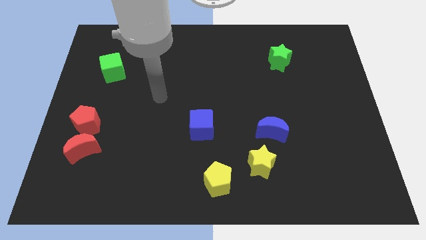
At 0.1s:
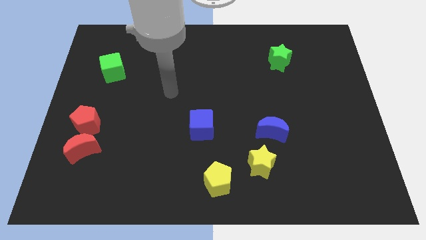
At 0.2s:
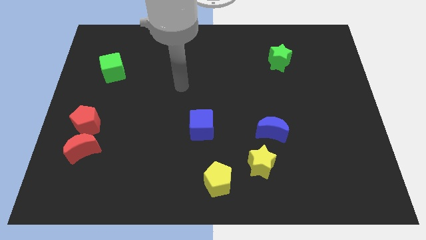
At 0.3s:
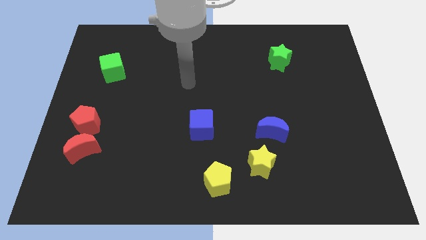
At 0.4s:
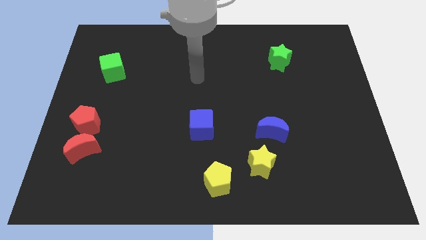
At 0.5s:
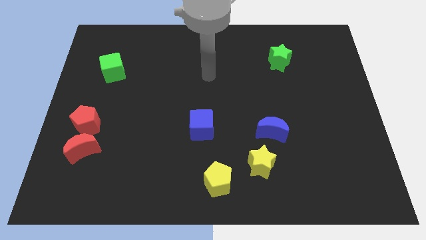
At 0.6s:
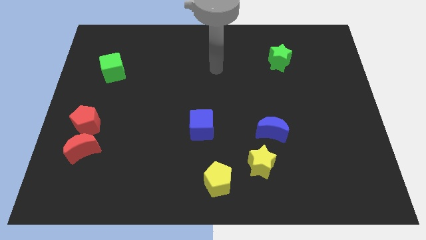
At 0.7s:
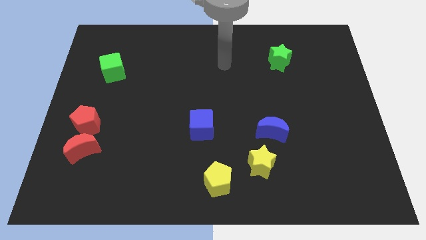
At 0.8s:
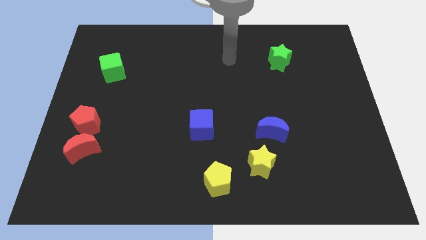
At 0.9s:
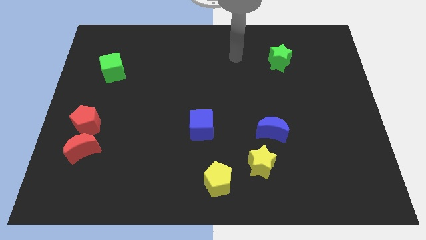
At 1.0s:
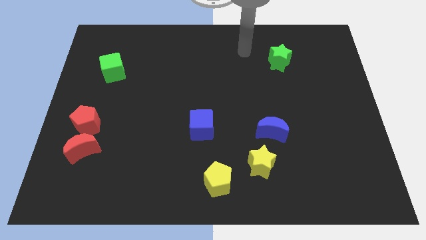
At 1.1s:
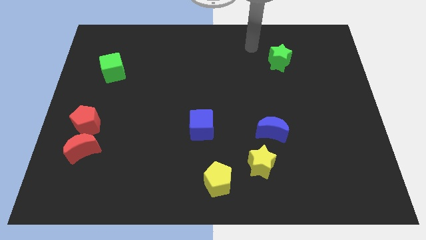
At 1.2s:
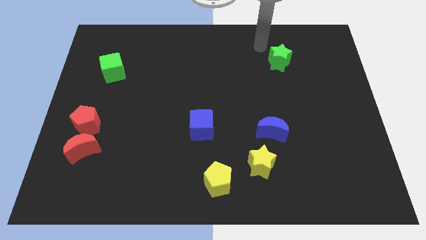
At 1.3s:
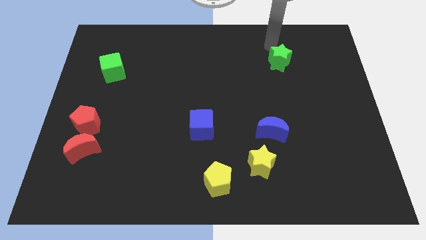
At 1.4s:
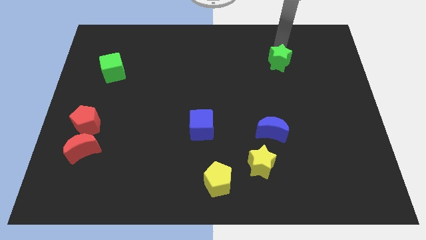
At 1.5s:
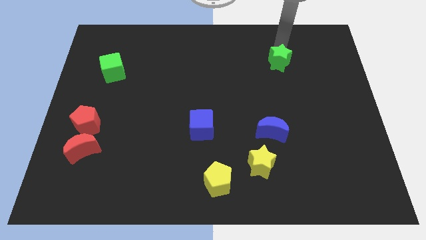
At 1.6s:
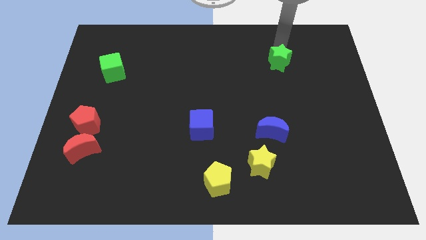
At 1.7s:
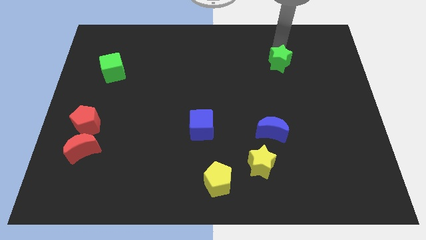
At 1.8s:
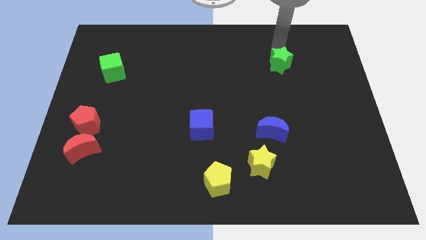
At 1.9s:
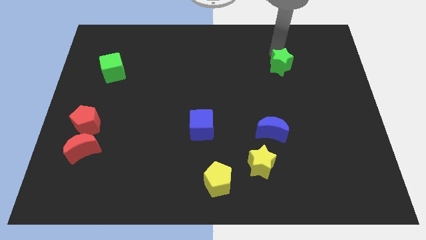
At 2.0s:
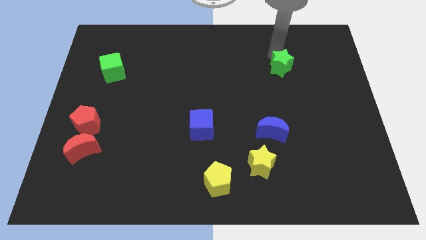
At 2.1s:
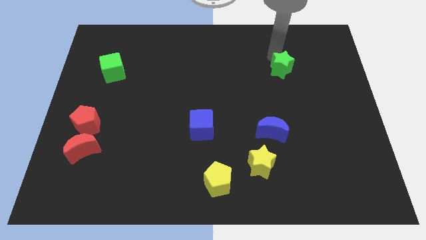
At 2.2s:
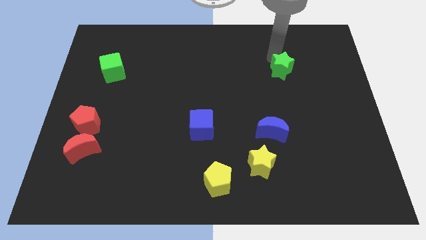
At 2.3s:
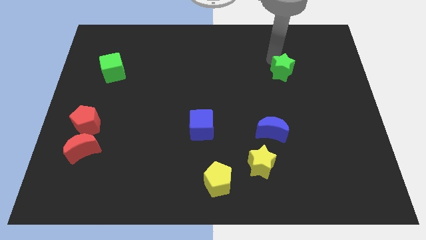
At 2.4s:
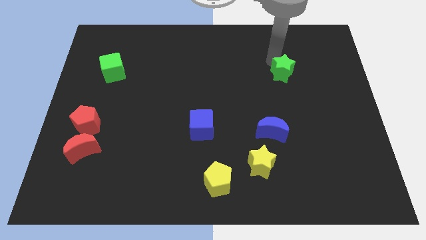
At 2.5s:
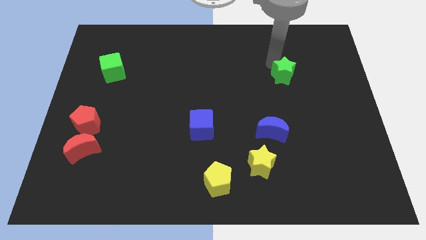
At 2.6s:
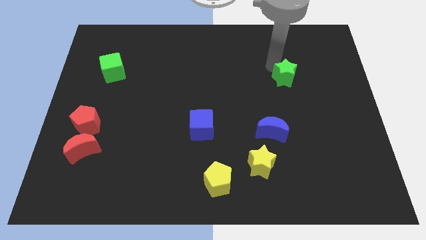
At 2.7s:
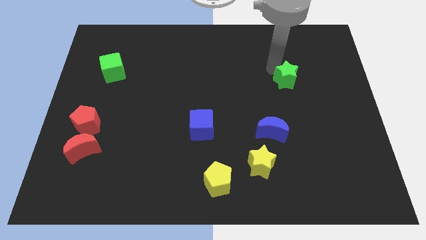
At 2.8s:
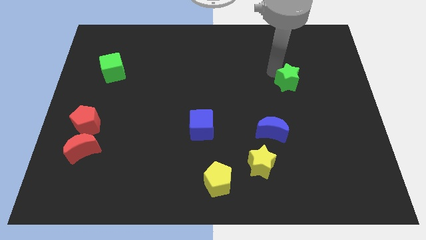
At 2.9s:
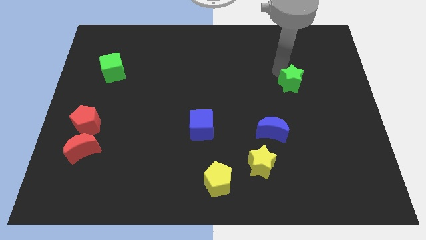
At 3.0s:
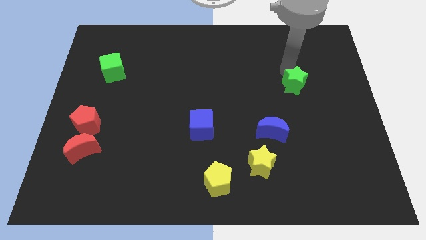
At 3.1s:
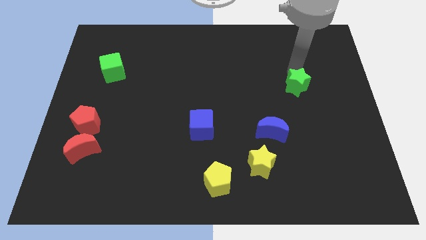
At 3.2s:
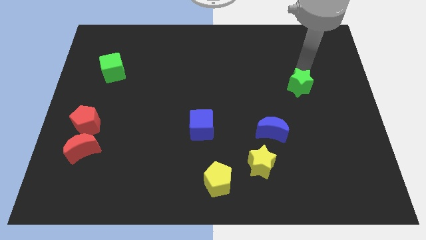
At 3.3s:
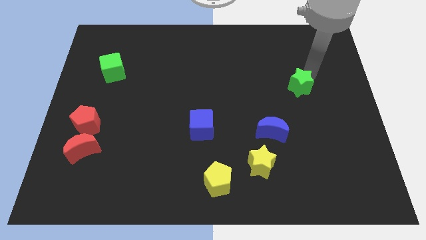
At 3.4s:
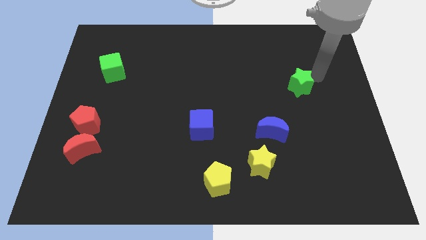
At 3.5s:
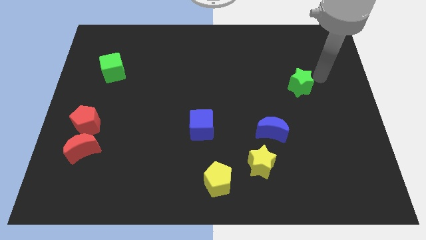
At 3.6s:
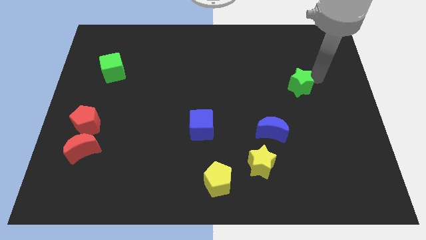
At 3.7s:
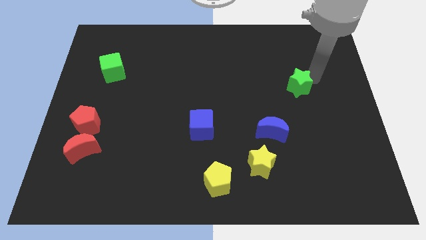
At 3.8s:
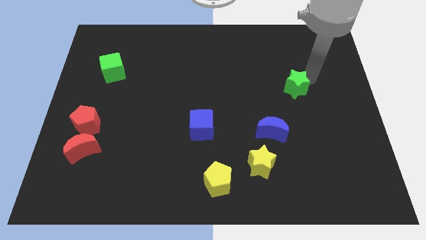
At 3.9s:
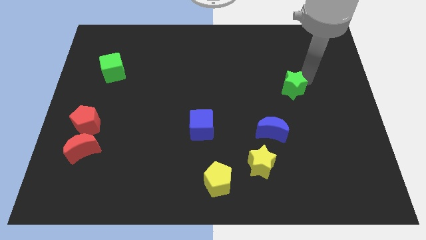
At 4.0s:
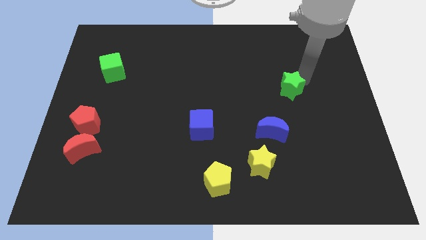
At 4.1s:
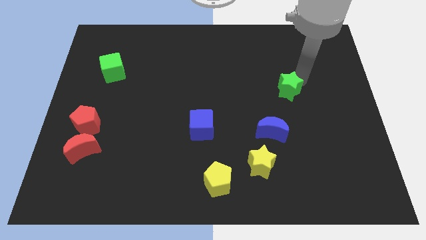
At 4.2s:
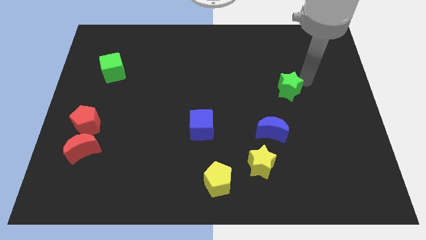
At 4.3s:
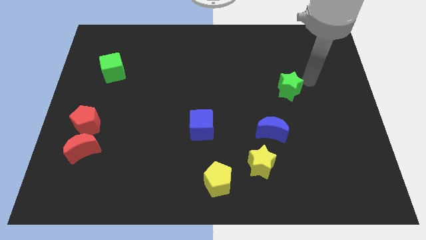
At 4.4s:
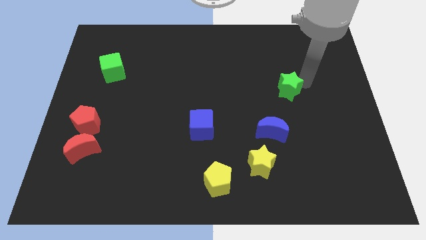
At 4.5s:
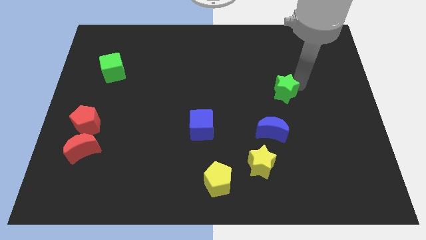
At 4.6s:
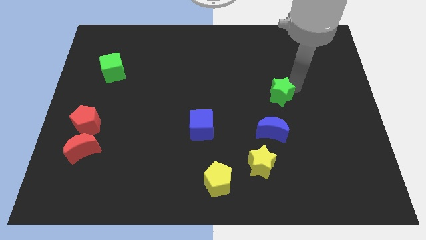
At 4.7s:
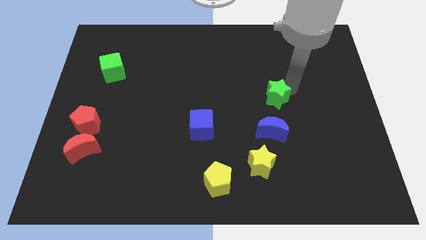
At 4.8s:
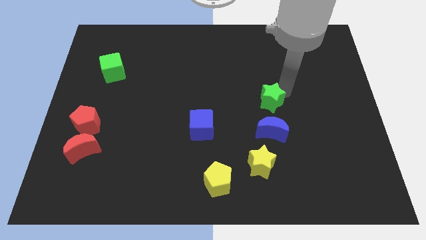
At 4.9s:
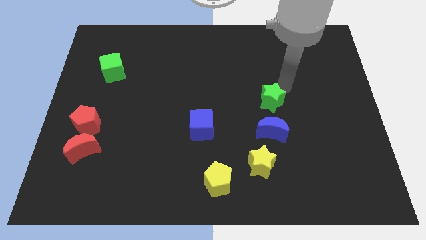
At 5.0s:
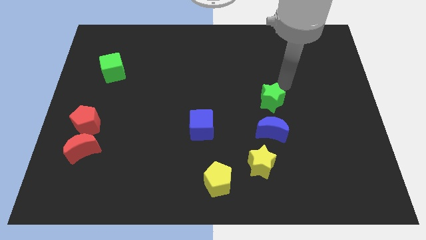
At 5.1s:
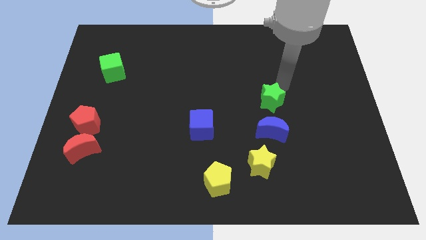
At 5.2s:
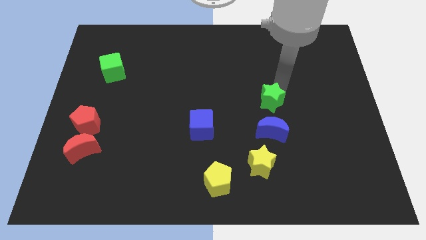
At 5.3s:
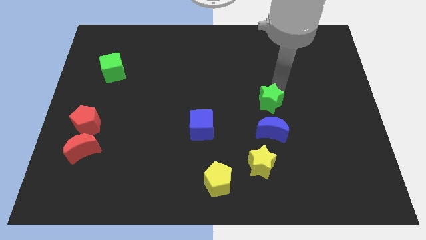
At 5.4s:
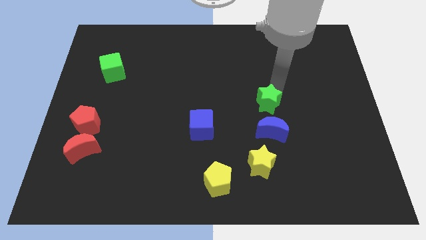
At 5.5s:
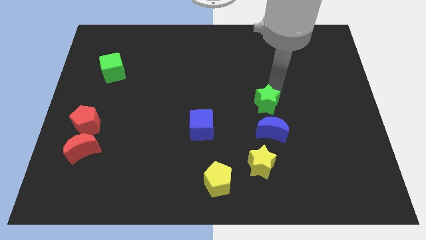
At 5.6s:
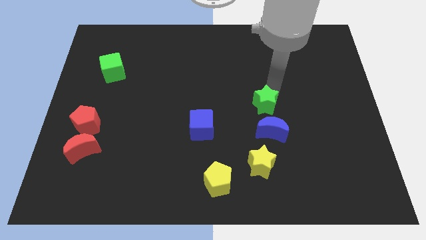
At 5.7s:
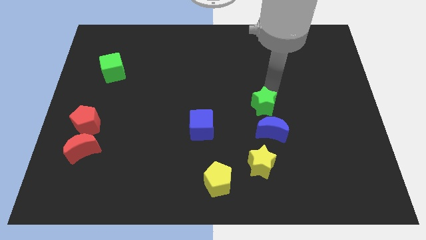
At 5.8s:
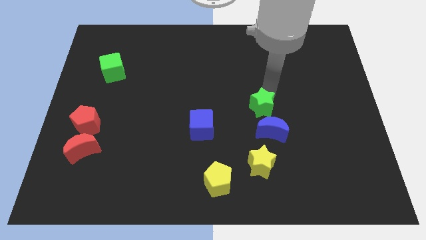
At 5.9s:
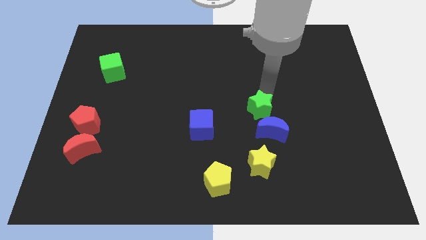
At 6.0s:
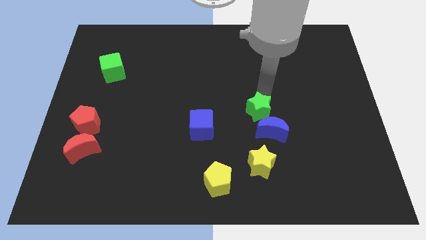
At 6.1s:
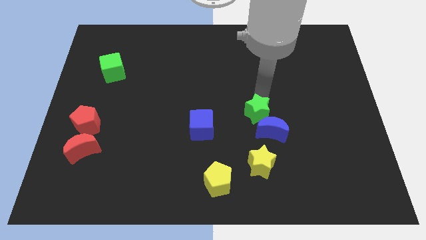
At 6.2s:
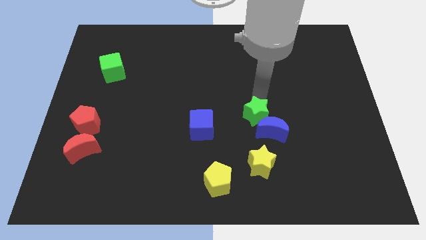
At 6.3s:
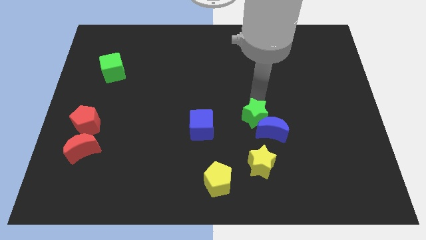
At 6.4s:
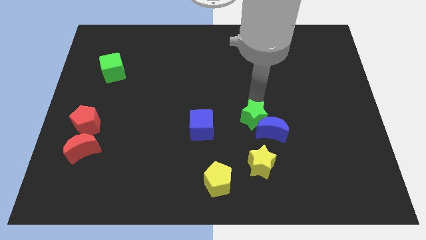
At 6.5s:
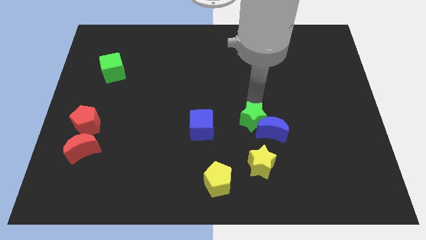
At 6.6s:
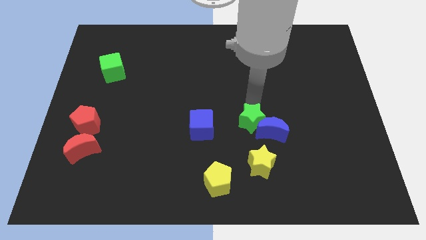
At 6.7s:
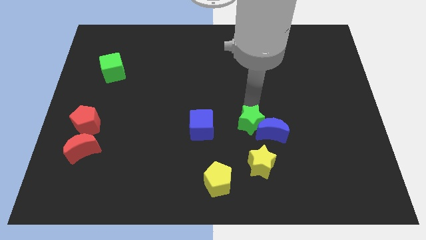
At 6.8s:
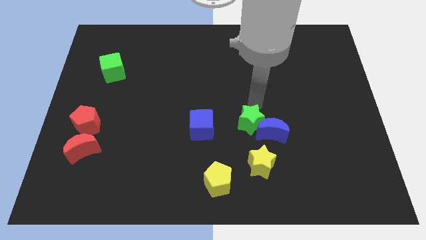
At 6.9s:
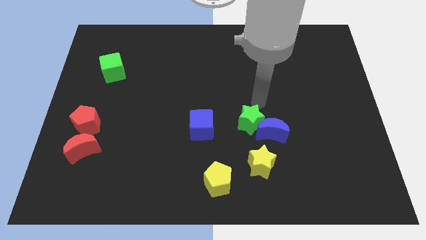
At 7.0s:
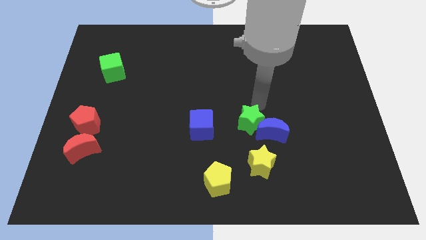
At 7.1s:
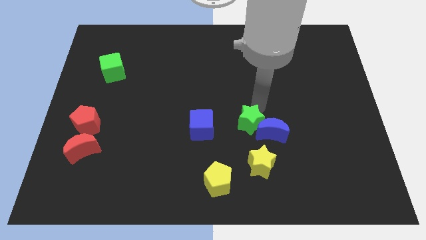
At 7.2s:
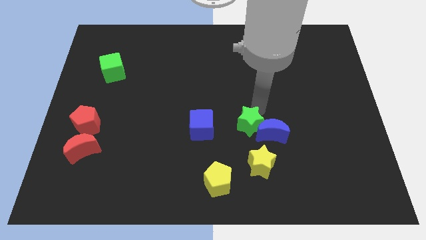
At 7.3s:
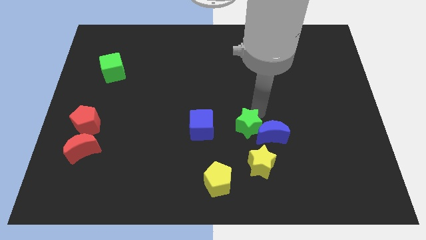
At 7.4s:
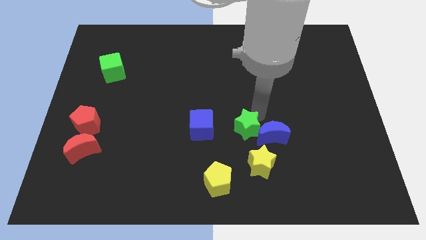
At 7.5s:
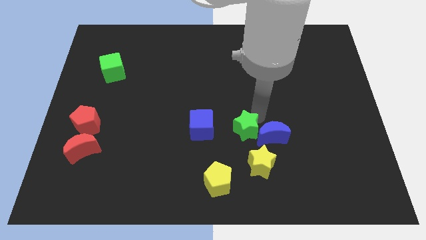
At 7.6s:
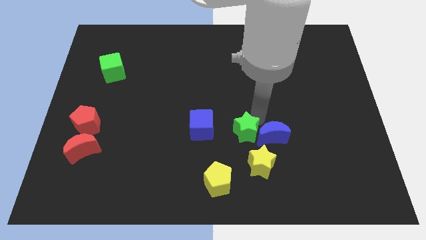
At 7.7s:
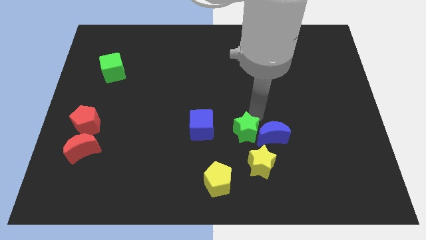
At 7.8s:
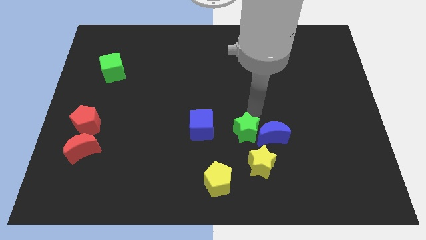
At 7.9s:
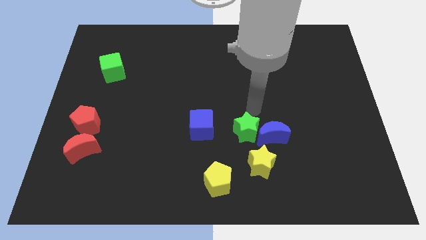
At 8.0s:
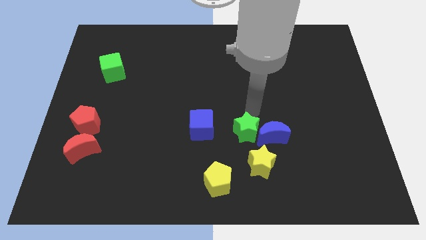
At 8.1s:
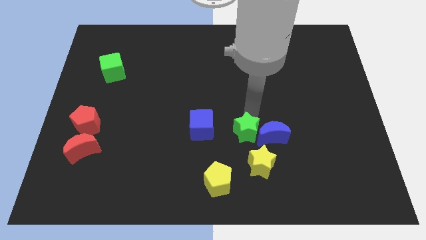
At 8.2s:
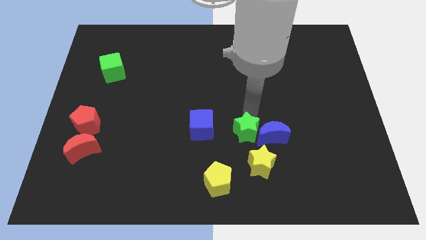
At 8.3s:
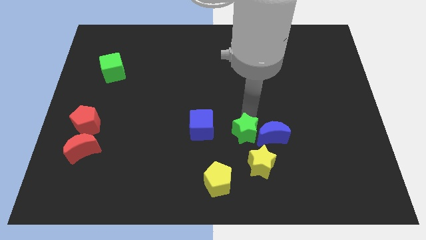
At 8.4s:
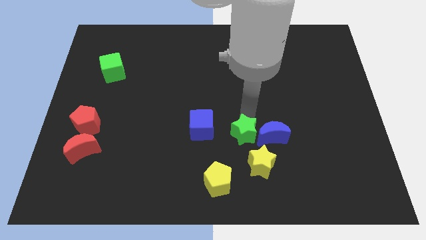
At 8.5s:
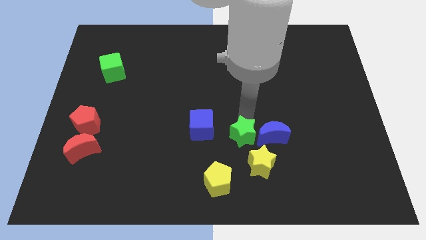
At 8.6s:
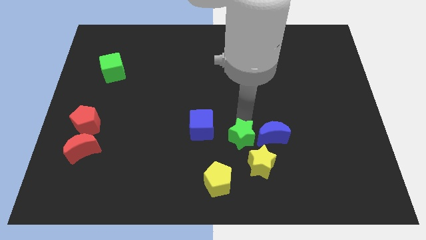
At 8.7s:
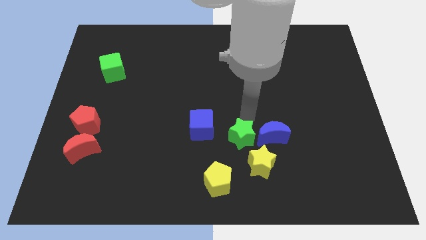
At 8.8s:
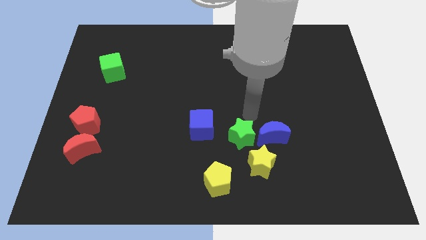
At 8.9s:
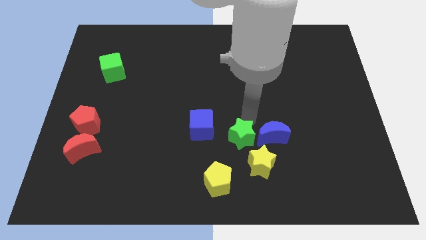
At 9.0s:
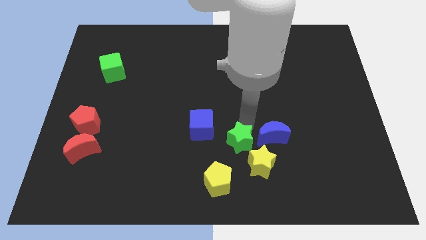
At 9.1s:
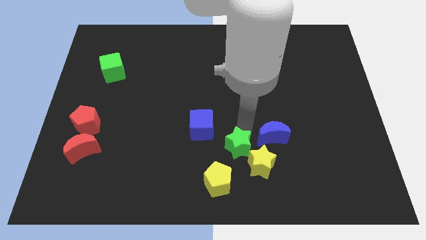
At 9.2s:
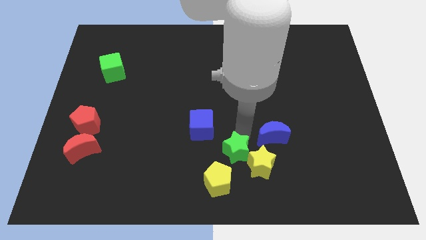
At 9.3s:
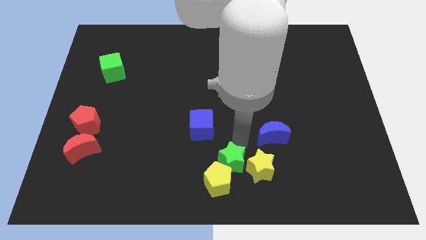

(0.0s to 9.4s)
slide the green star close to the yellow pentagon
